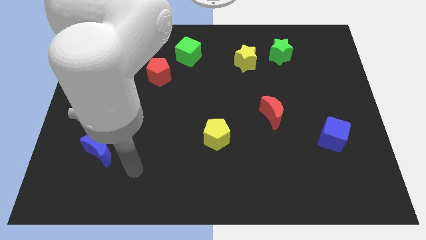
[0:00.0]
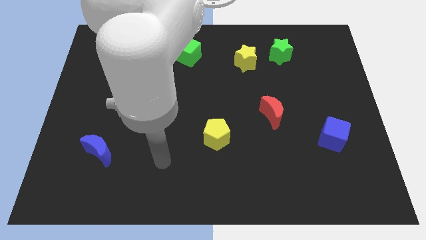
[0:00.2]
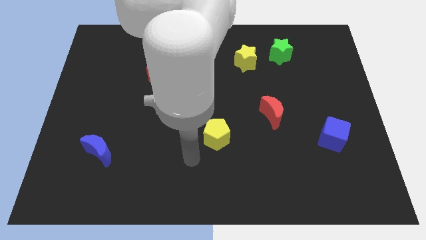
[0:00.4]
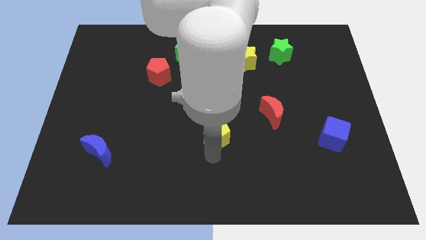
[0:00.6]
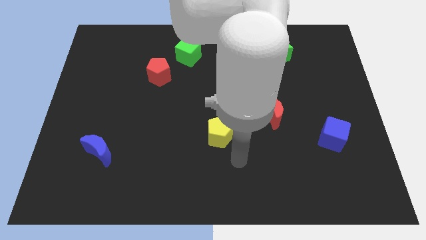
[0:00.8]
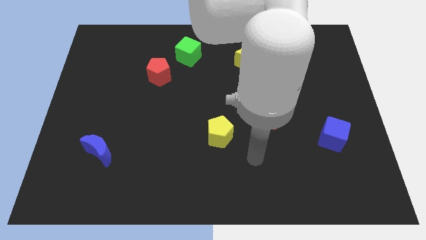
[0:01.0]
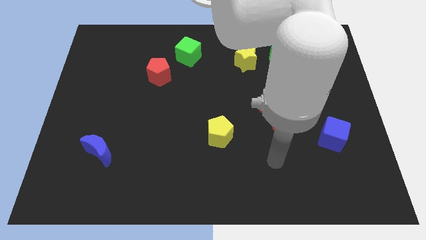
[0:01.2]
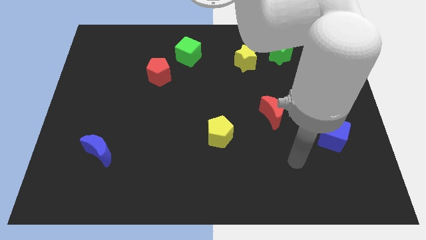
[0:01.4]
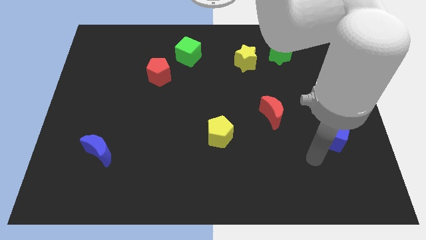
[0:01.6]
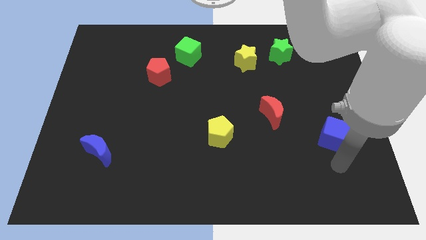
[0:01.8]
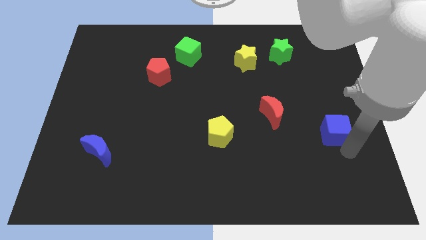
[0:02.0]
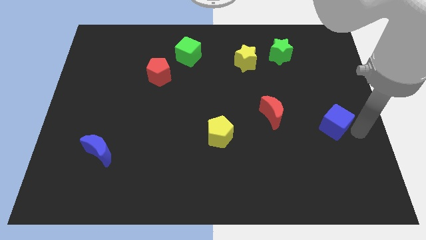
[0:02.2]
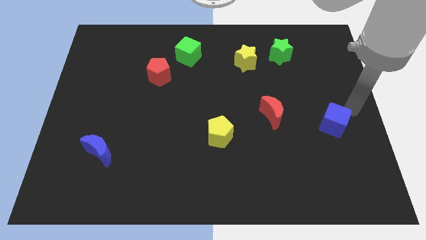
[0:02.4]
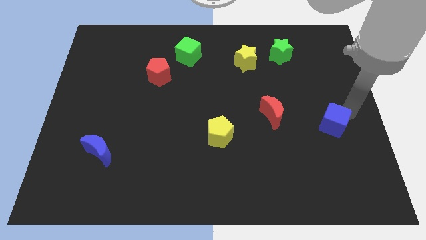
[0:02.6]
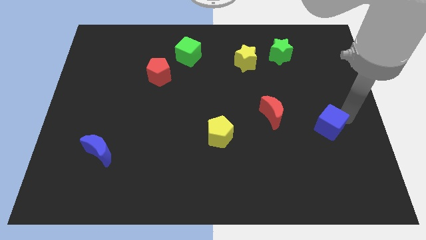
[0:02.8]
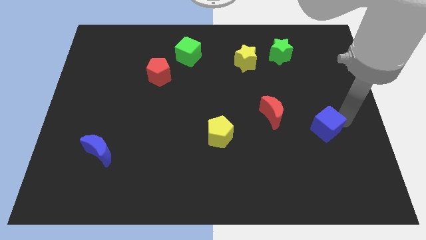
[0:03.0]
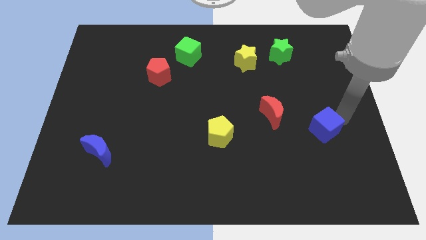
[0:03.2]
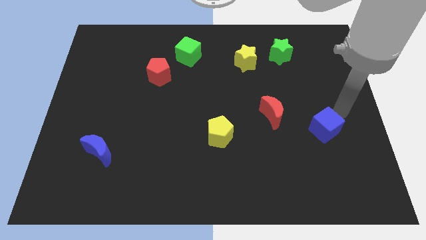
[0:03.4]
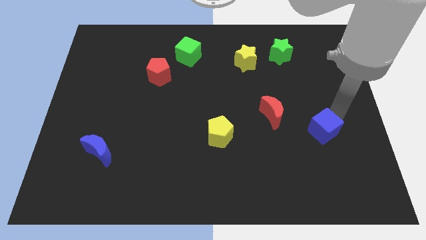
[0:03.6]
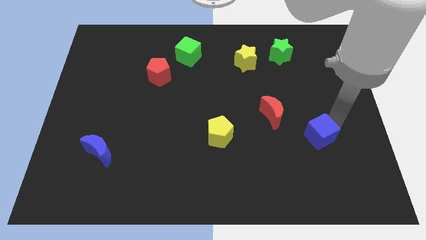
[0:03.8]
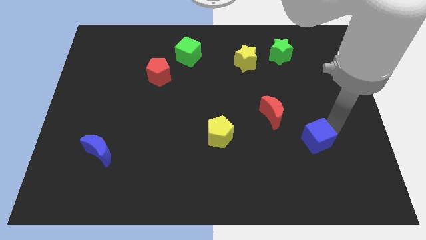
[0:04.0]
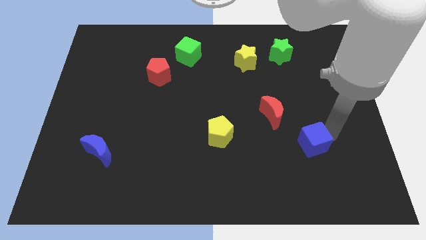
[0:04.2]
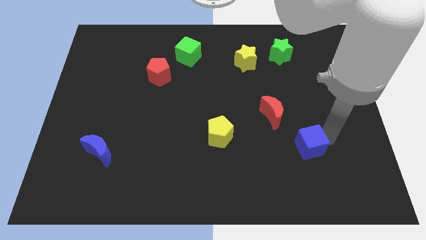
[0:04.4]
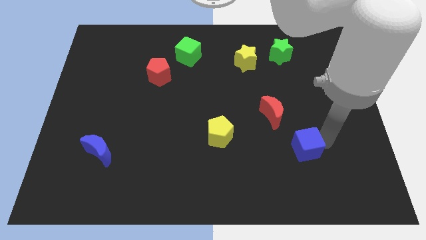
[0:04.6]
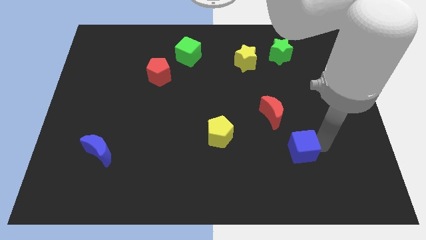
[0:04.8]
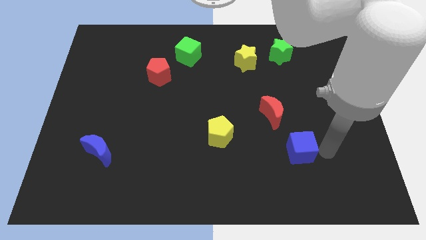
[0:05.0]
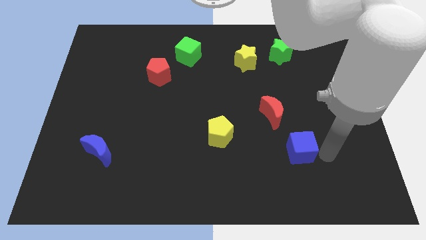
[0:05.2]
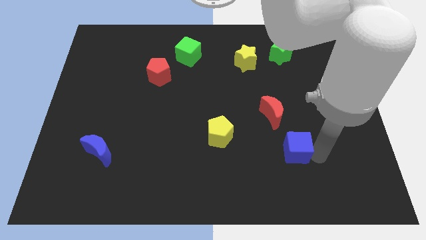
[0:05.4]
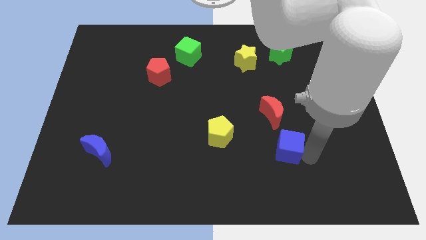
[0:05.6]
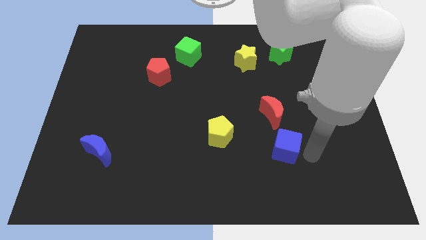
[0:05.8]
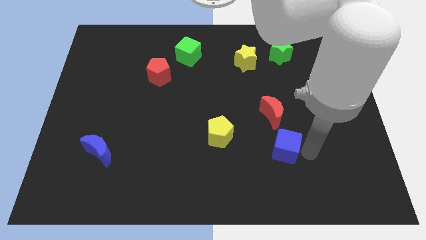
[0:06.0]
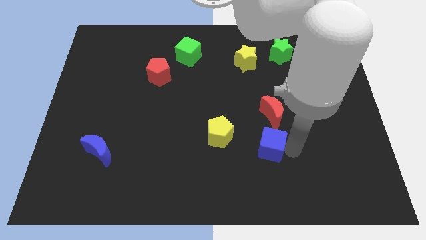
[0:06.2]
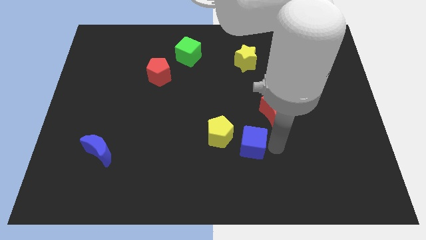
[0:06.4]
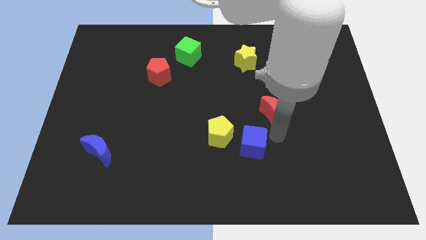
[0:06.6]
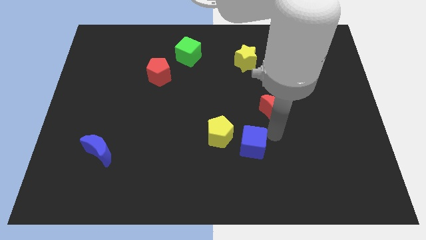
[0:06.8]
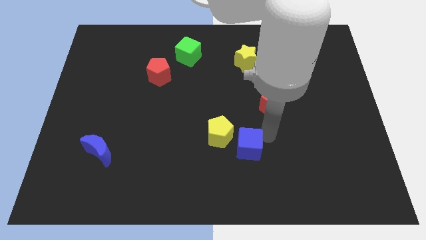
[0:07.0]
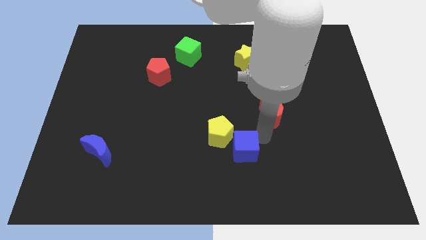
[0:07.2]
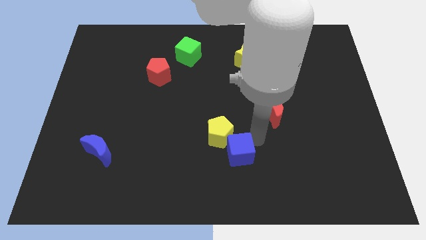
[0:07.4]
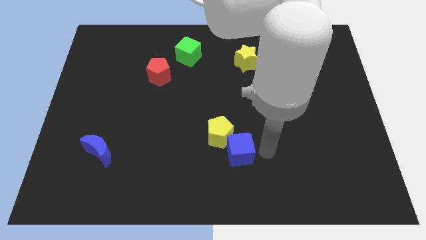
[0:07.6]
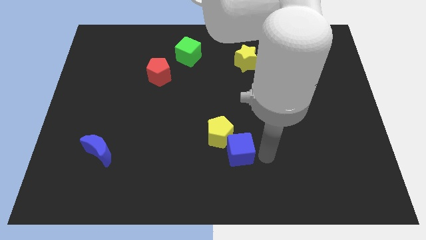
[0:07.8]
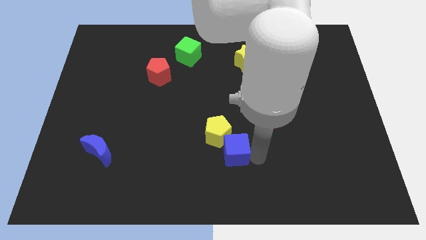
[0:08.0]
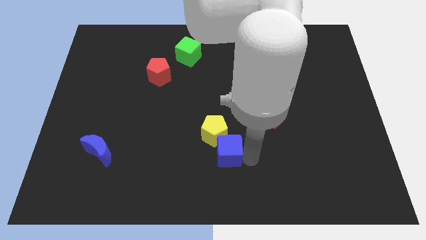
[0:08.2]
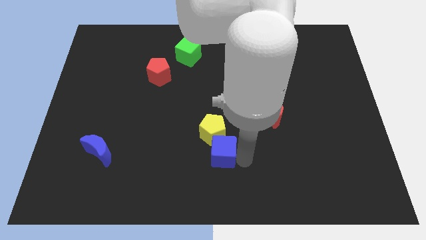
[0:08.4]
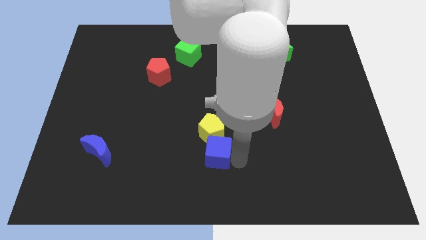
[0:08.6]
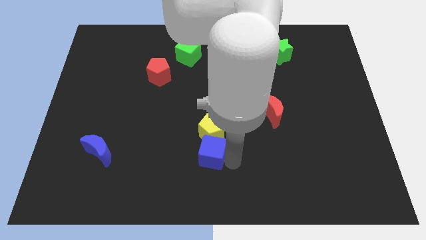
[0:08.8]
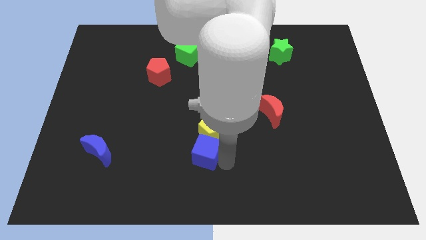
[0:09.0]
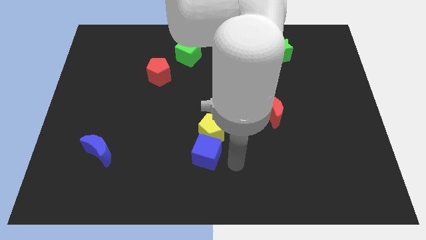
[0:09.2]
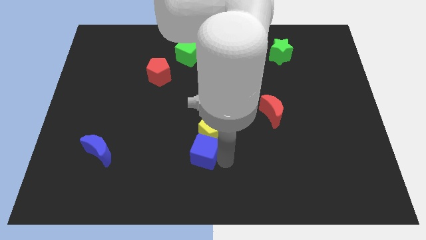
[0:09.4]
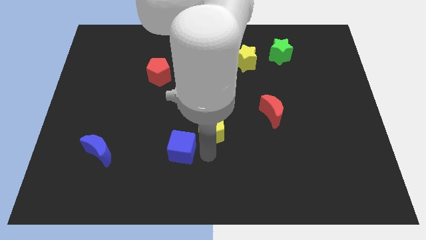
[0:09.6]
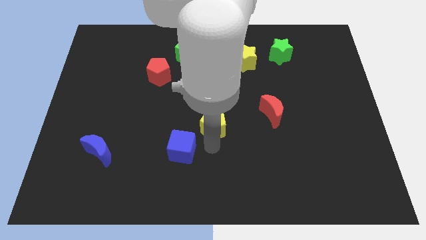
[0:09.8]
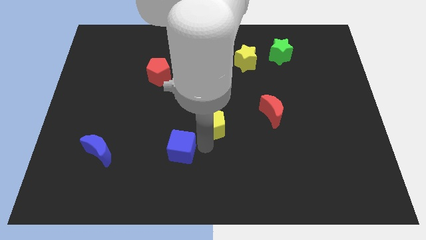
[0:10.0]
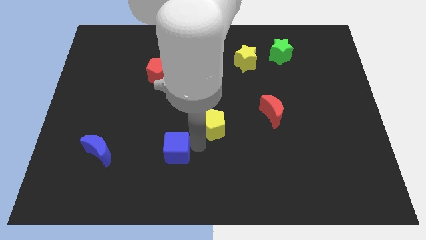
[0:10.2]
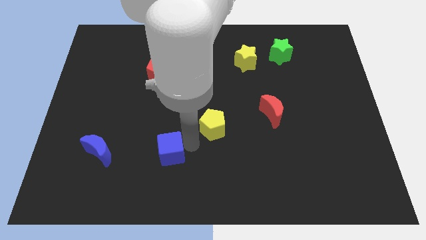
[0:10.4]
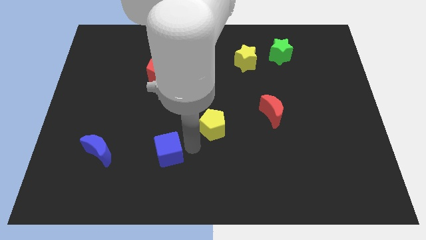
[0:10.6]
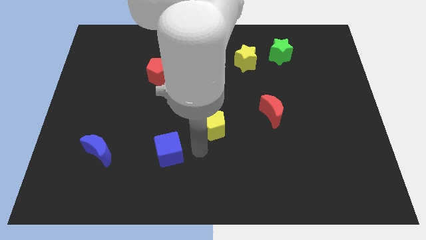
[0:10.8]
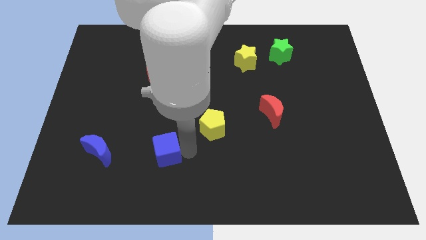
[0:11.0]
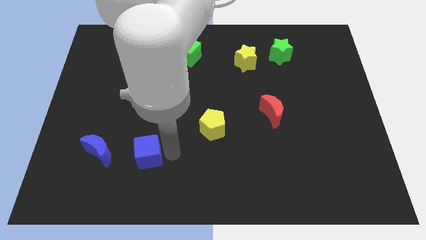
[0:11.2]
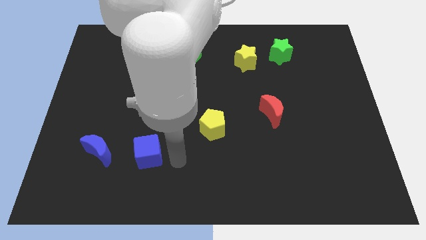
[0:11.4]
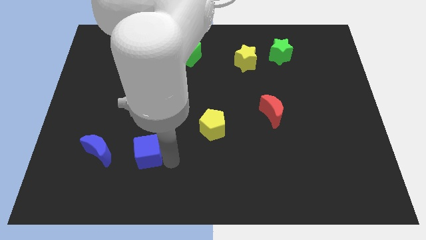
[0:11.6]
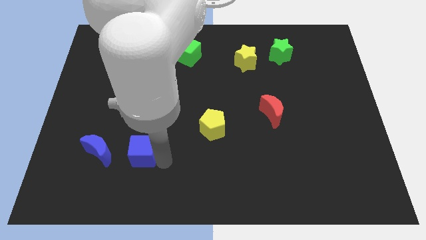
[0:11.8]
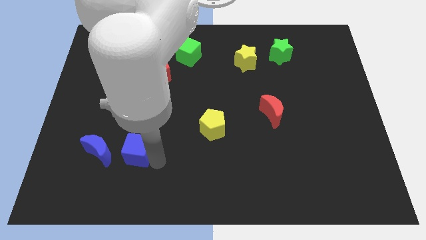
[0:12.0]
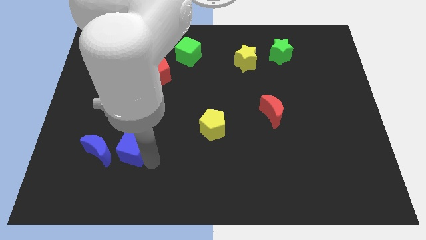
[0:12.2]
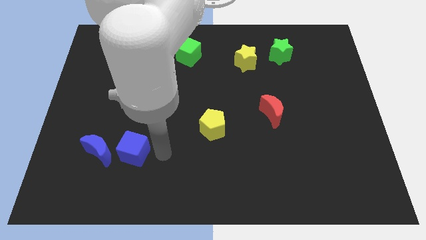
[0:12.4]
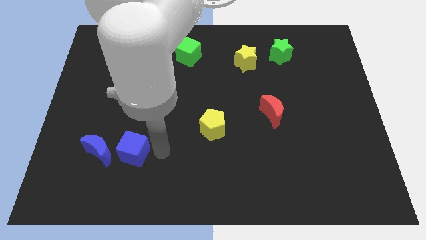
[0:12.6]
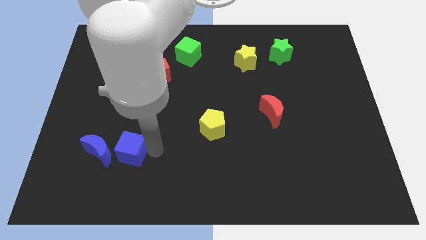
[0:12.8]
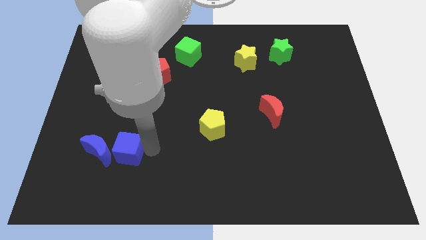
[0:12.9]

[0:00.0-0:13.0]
slide the blue cube towards the blue moon

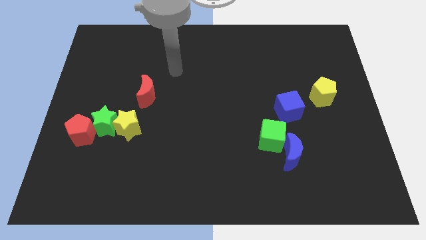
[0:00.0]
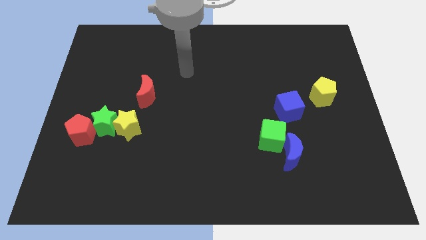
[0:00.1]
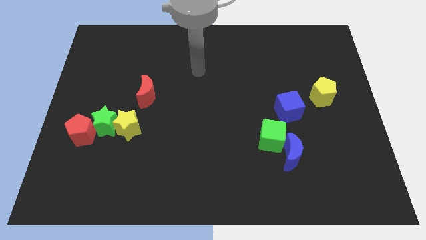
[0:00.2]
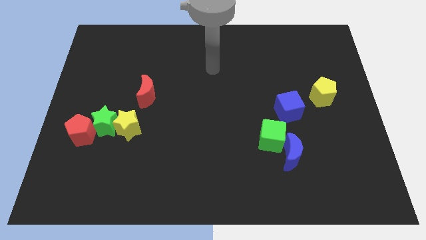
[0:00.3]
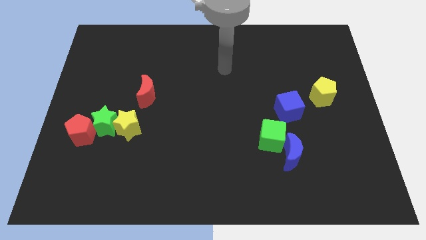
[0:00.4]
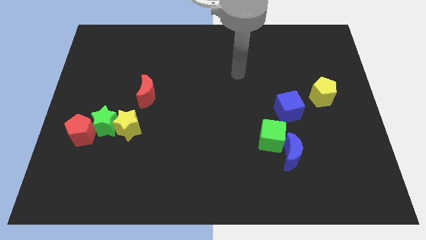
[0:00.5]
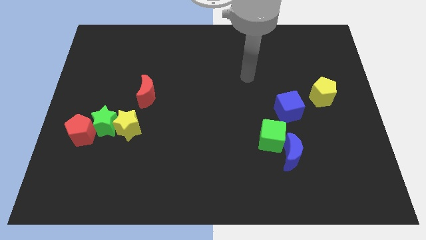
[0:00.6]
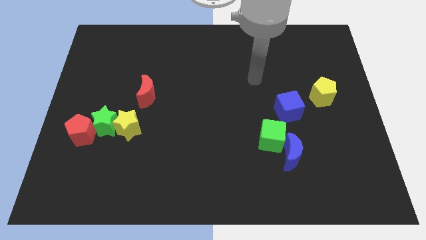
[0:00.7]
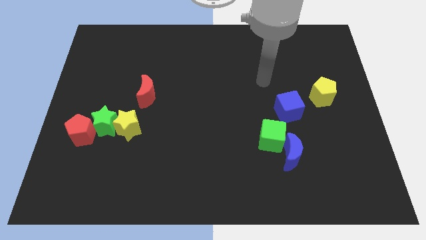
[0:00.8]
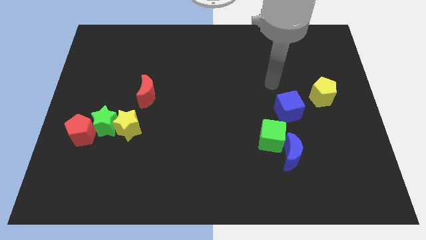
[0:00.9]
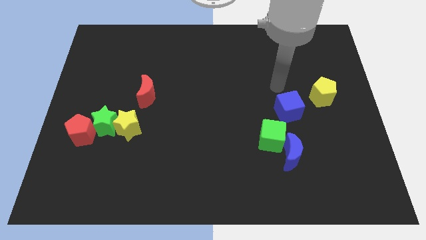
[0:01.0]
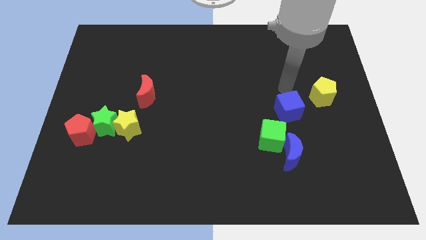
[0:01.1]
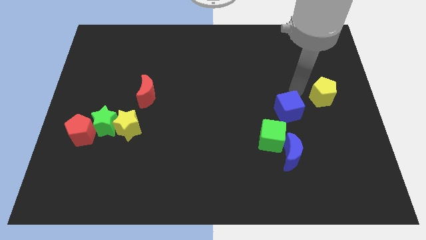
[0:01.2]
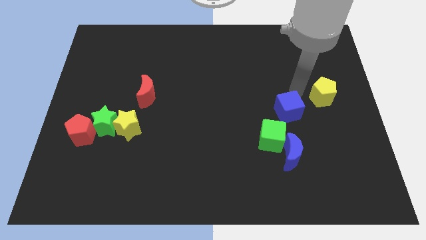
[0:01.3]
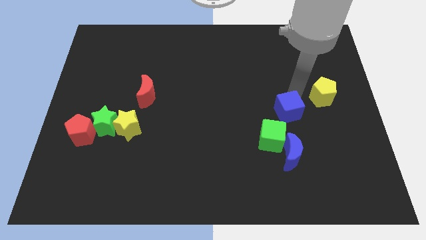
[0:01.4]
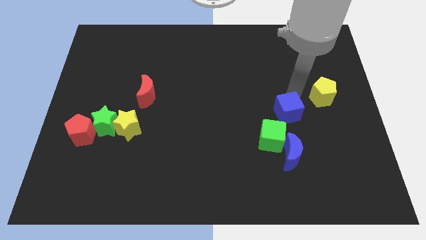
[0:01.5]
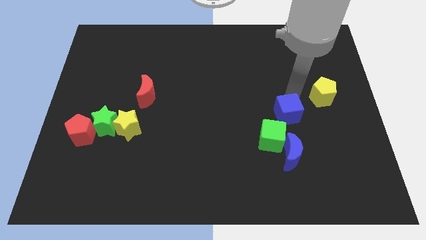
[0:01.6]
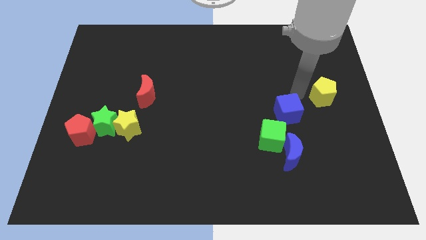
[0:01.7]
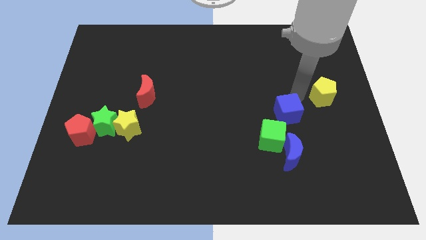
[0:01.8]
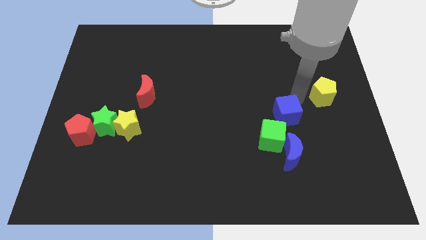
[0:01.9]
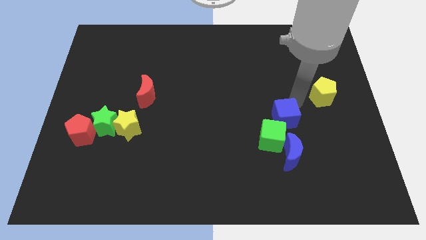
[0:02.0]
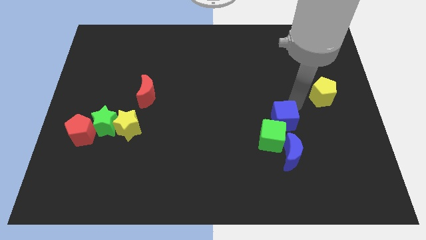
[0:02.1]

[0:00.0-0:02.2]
push the blue cube towards the green cube
